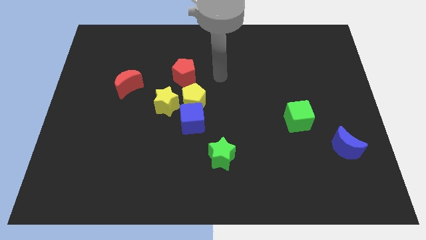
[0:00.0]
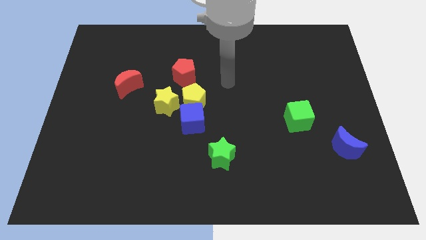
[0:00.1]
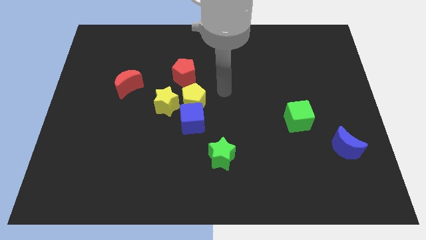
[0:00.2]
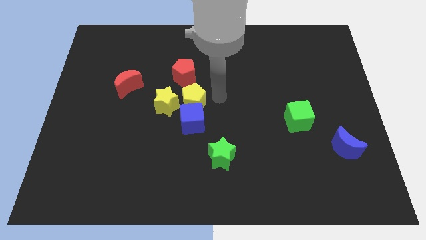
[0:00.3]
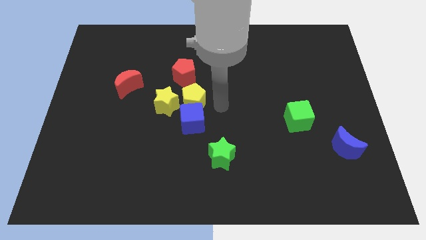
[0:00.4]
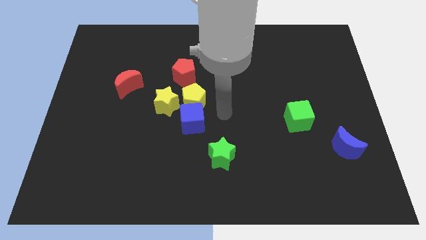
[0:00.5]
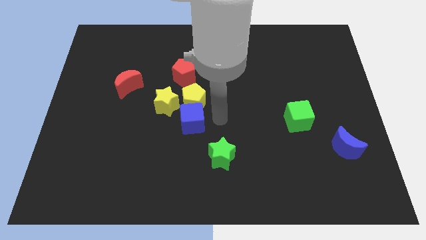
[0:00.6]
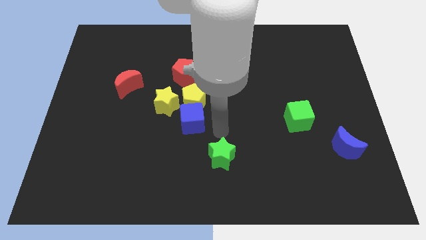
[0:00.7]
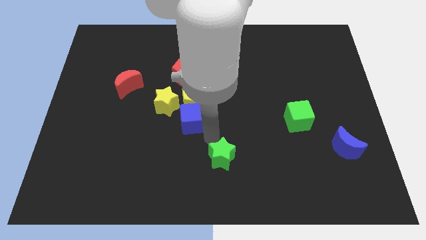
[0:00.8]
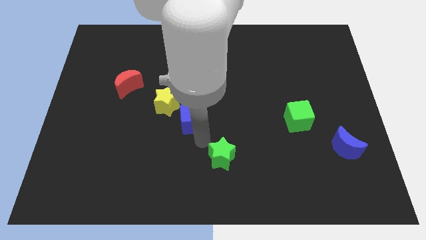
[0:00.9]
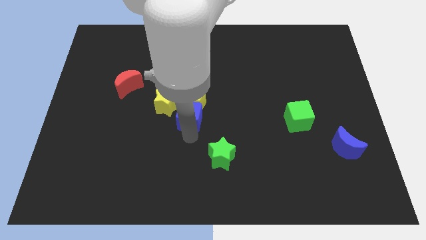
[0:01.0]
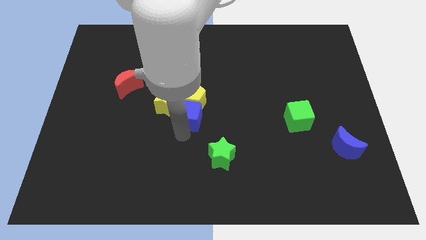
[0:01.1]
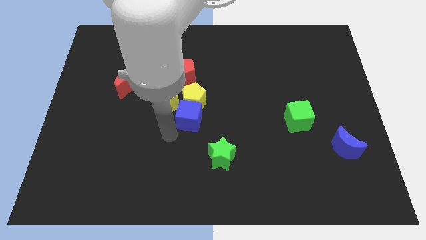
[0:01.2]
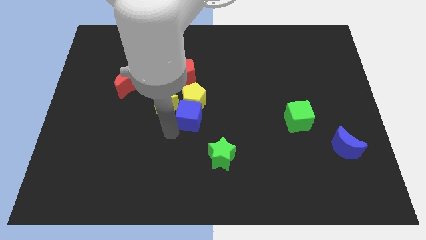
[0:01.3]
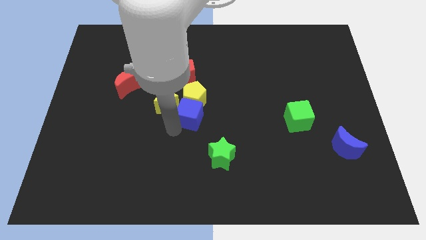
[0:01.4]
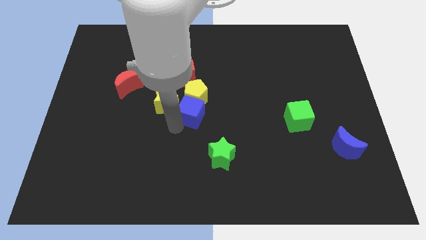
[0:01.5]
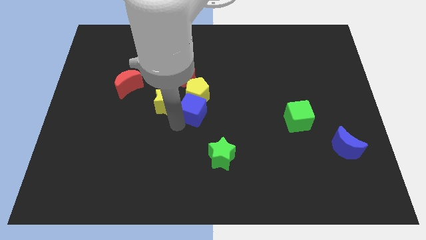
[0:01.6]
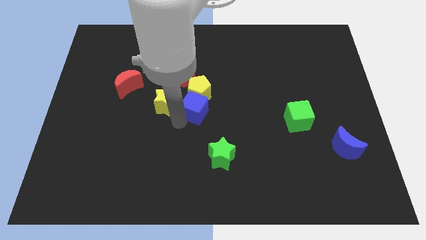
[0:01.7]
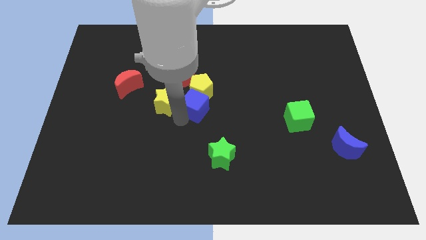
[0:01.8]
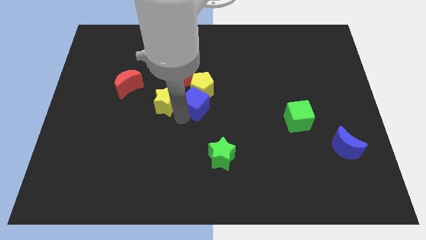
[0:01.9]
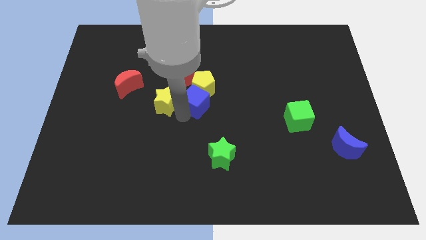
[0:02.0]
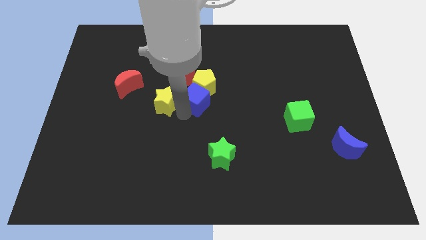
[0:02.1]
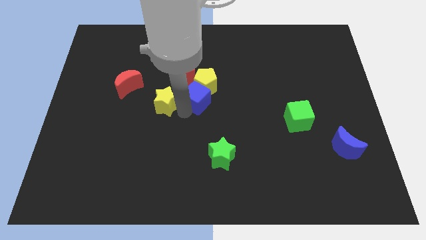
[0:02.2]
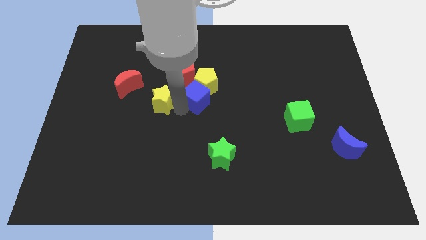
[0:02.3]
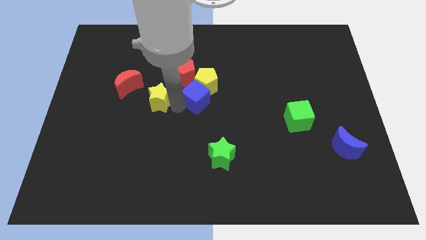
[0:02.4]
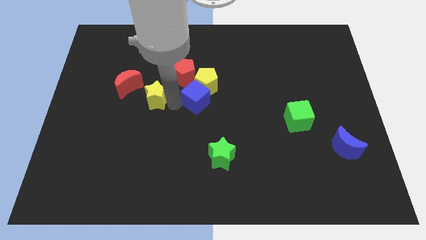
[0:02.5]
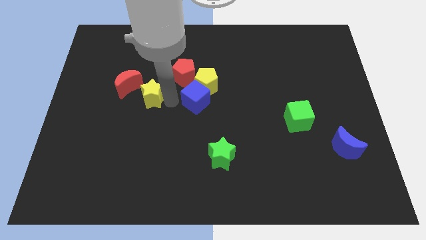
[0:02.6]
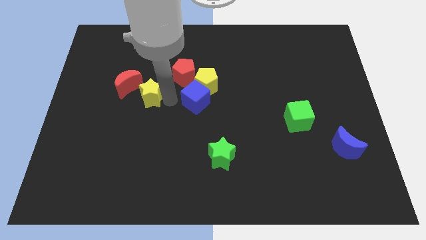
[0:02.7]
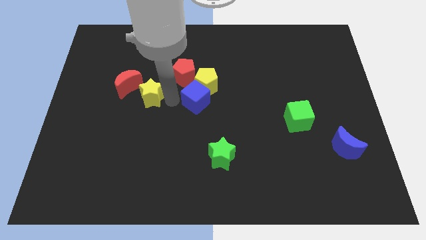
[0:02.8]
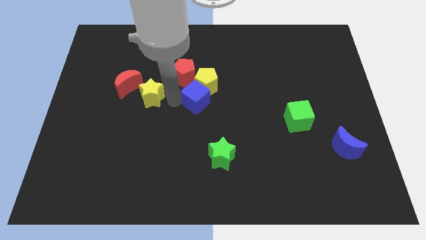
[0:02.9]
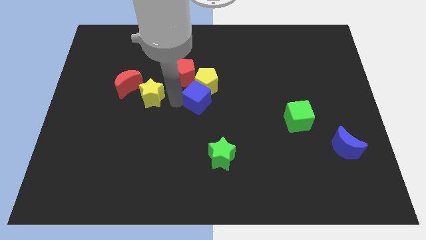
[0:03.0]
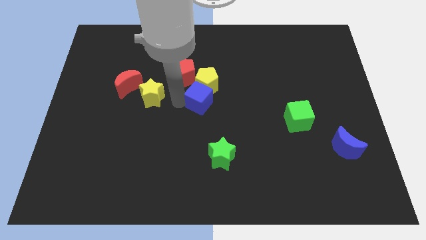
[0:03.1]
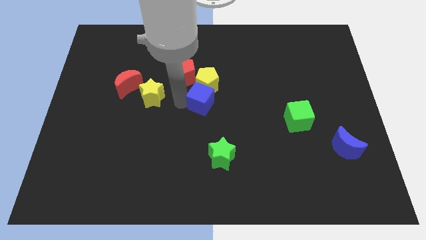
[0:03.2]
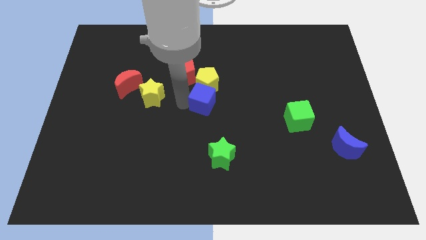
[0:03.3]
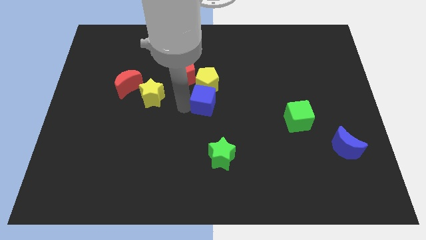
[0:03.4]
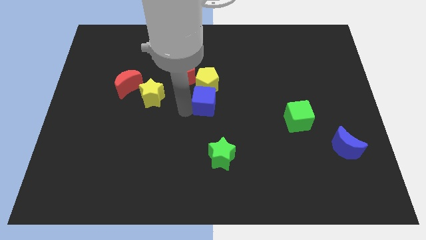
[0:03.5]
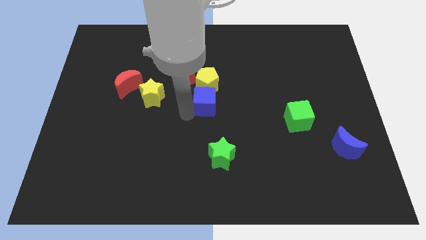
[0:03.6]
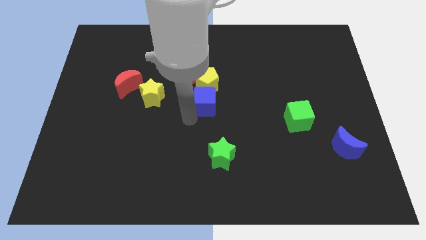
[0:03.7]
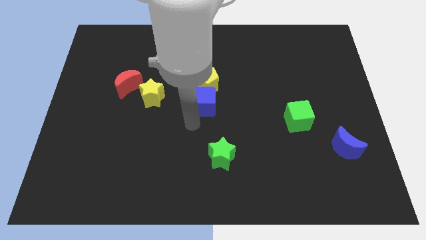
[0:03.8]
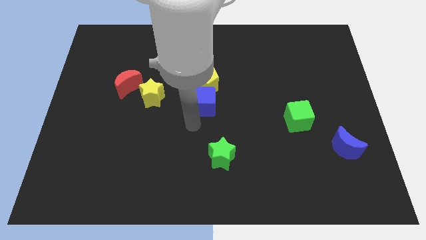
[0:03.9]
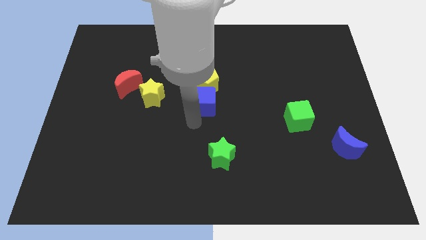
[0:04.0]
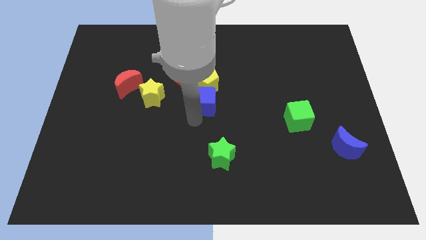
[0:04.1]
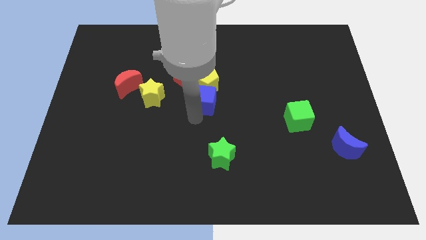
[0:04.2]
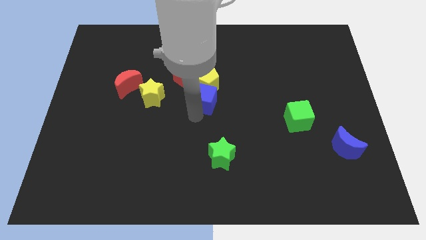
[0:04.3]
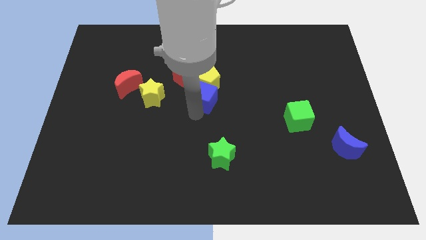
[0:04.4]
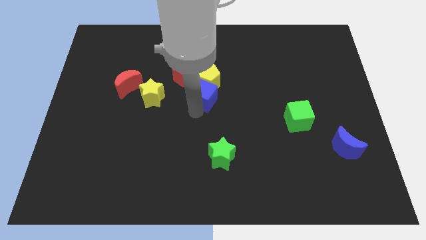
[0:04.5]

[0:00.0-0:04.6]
move the blue cube slightly upwards

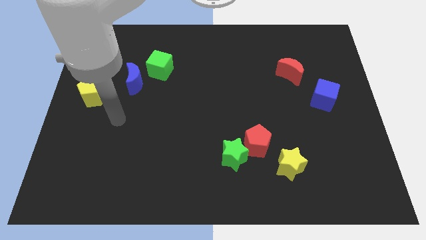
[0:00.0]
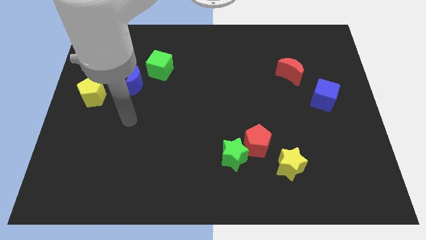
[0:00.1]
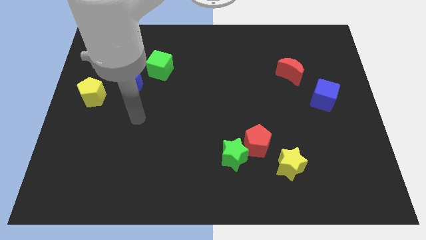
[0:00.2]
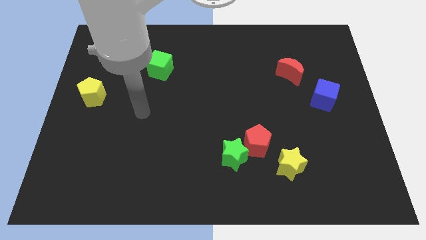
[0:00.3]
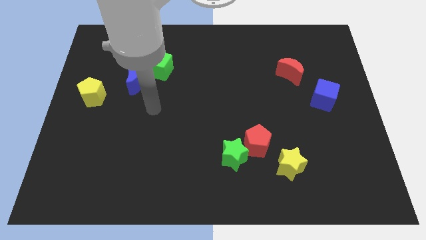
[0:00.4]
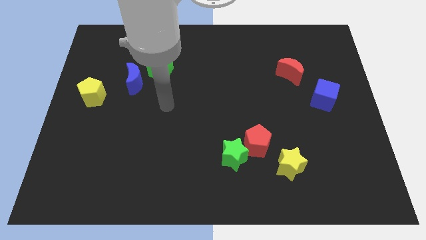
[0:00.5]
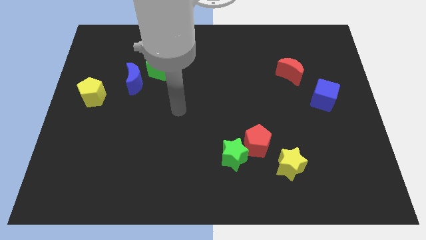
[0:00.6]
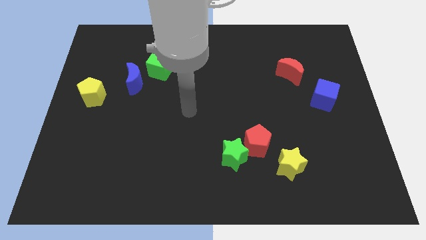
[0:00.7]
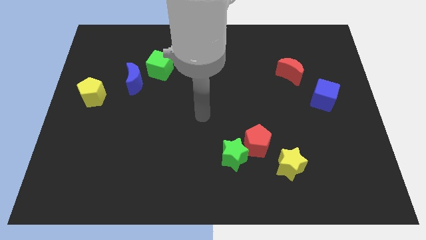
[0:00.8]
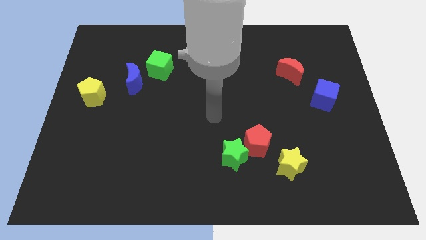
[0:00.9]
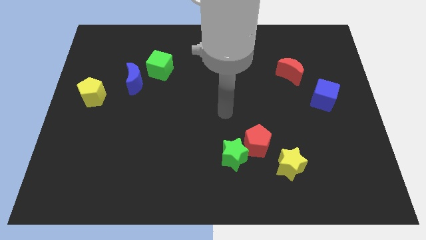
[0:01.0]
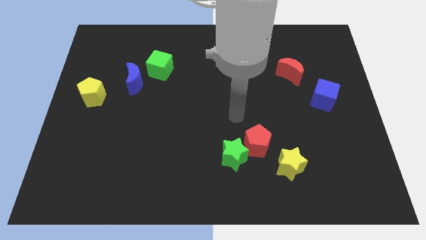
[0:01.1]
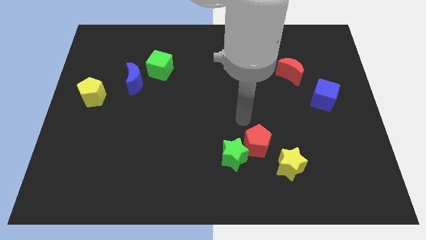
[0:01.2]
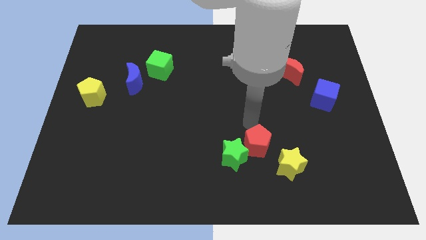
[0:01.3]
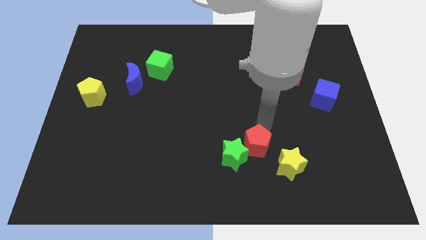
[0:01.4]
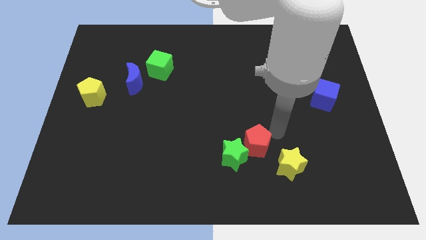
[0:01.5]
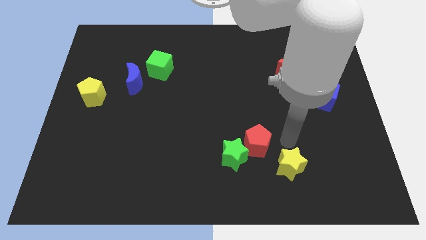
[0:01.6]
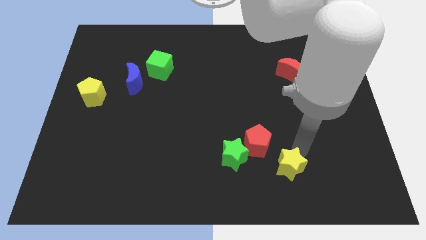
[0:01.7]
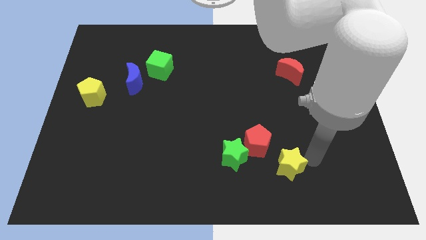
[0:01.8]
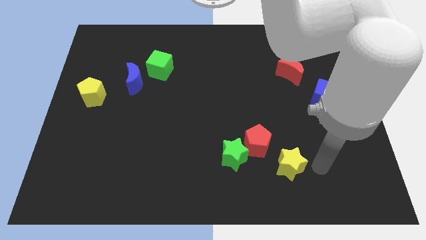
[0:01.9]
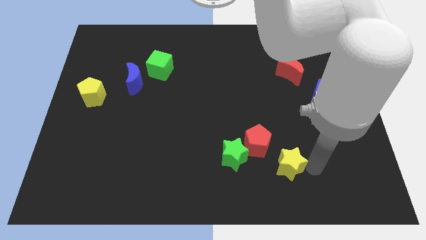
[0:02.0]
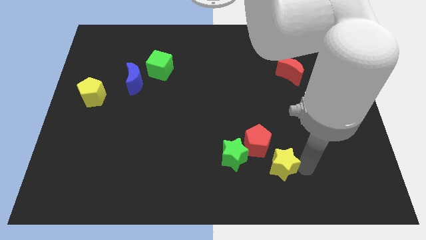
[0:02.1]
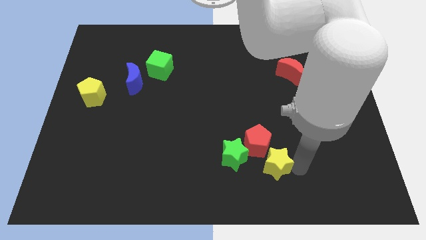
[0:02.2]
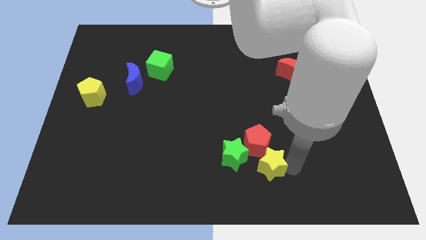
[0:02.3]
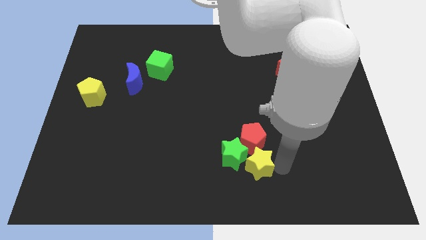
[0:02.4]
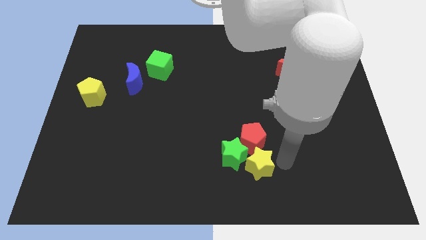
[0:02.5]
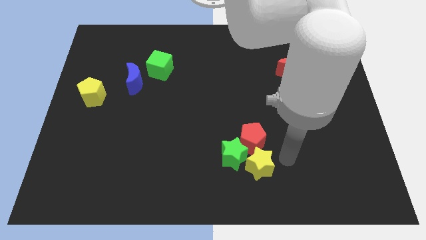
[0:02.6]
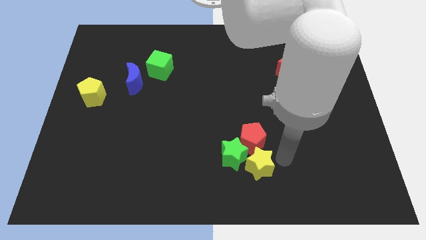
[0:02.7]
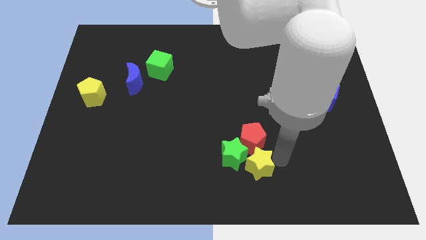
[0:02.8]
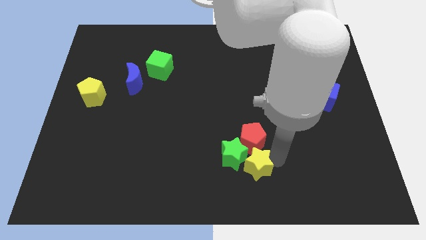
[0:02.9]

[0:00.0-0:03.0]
slightly move the yellow star left

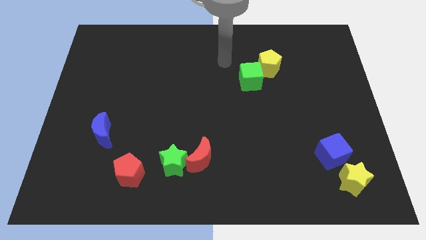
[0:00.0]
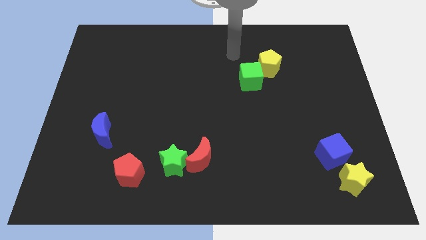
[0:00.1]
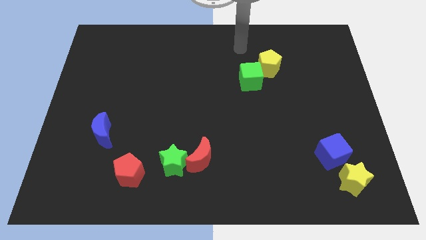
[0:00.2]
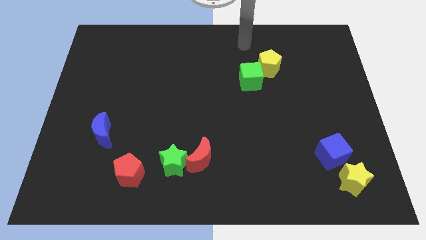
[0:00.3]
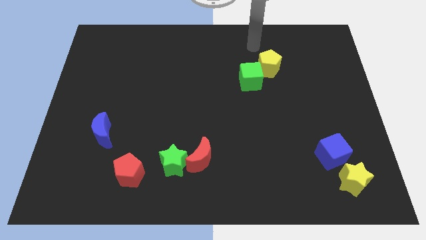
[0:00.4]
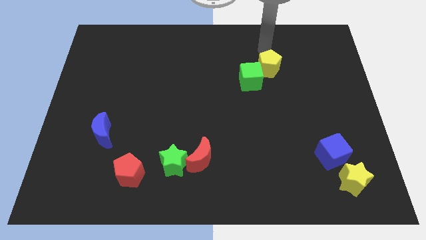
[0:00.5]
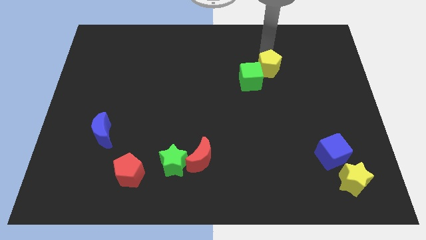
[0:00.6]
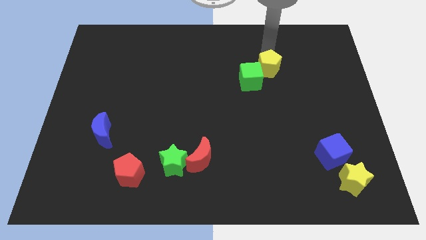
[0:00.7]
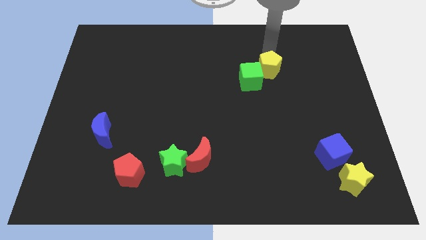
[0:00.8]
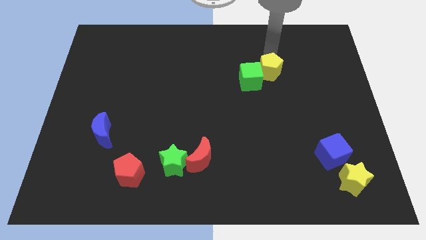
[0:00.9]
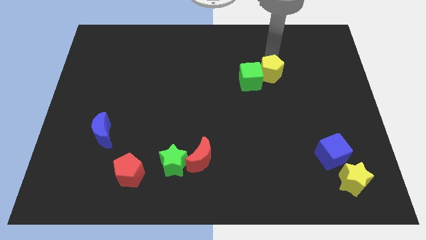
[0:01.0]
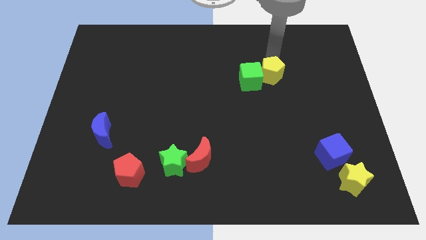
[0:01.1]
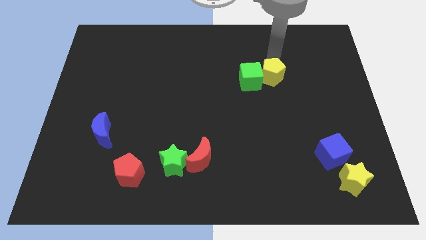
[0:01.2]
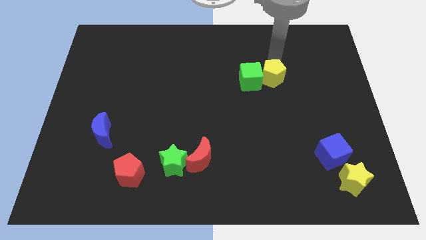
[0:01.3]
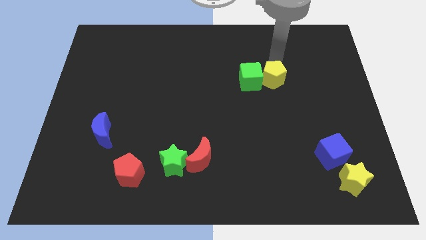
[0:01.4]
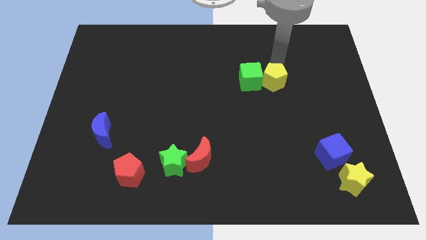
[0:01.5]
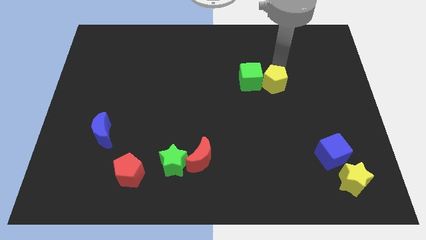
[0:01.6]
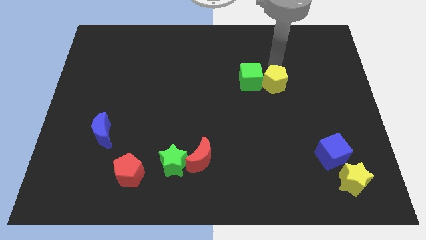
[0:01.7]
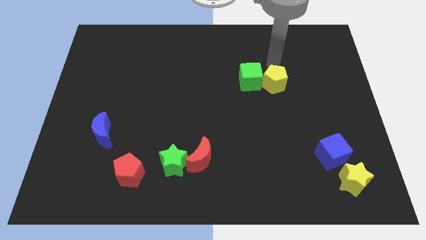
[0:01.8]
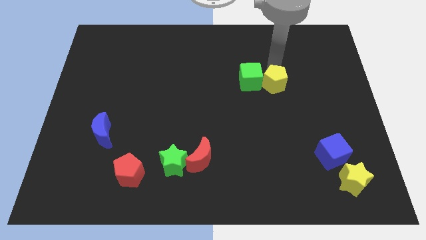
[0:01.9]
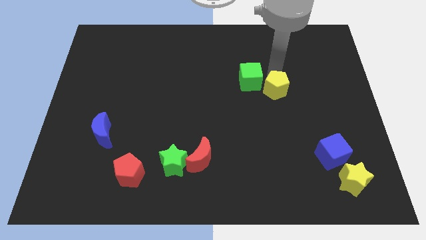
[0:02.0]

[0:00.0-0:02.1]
slide the yellow pentagon downwards somewhat
